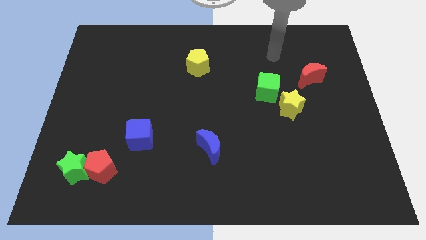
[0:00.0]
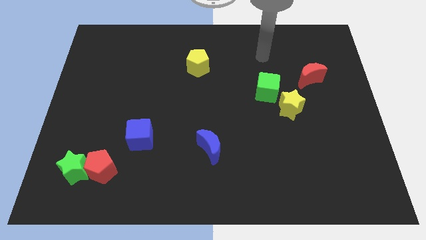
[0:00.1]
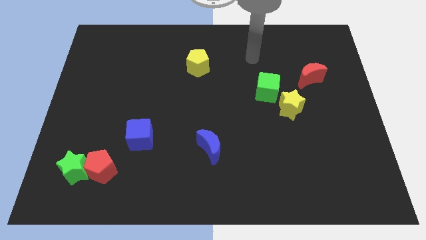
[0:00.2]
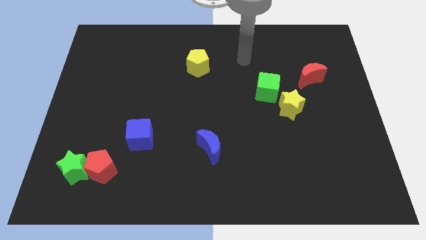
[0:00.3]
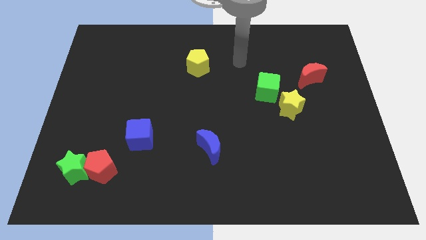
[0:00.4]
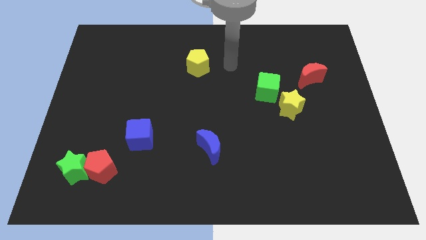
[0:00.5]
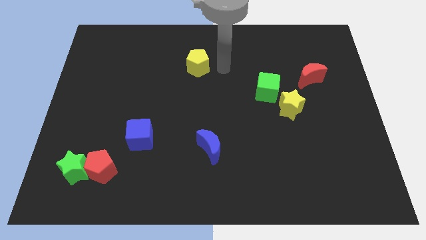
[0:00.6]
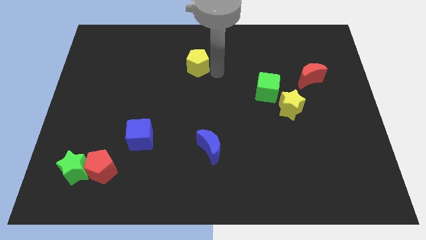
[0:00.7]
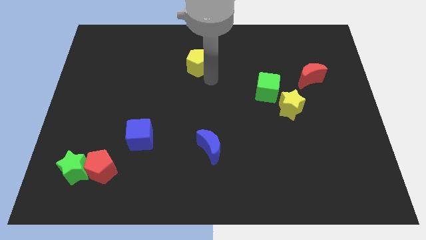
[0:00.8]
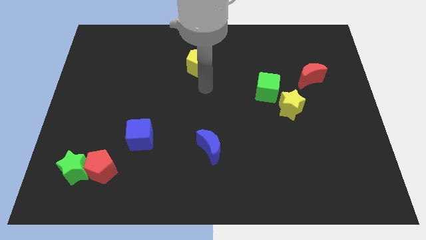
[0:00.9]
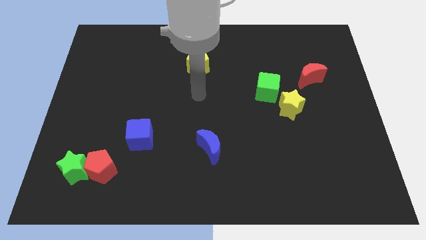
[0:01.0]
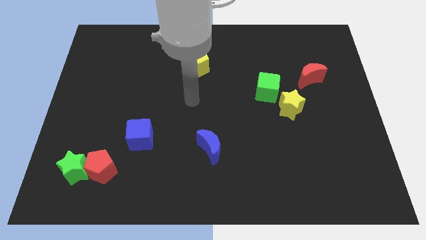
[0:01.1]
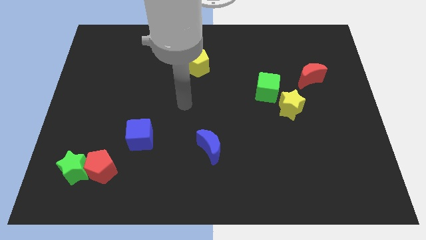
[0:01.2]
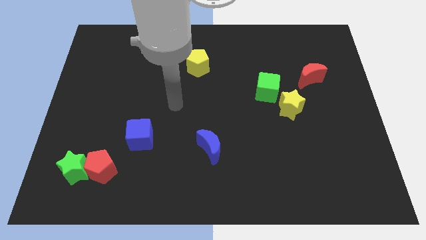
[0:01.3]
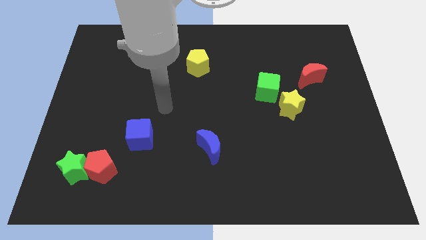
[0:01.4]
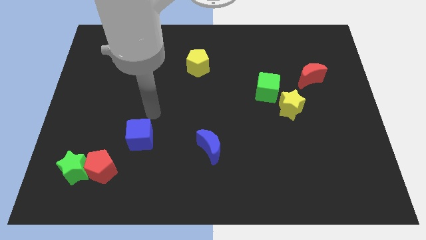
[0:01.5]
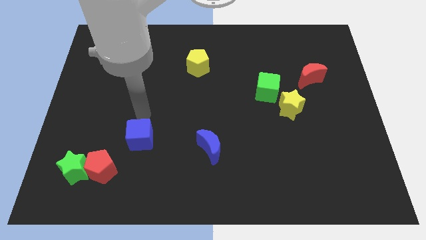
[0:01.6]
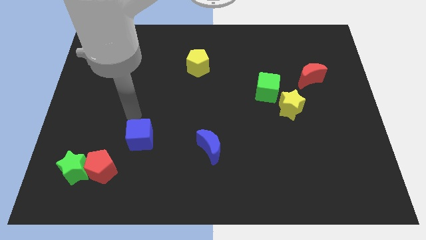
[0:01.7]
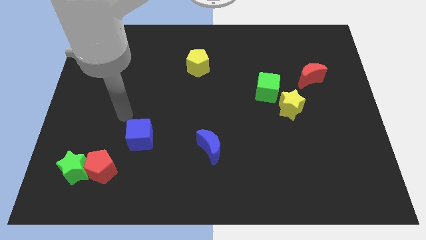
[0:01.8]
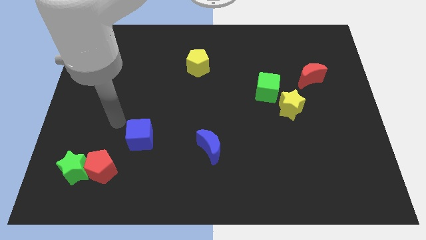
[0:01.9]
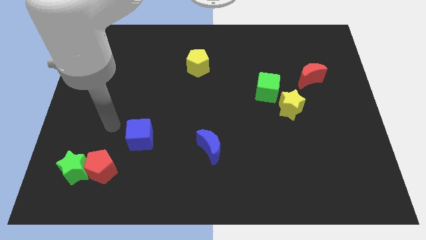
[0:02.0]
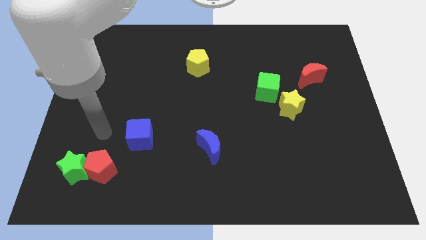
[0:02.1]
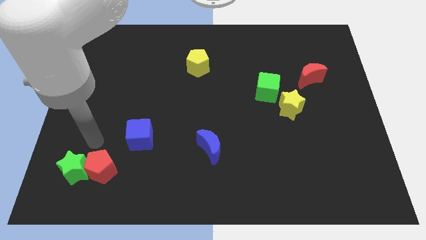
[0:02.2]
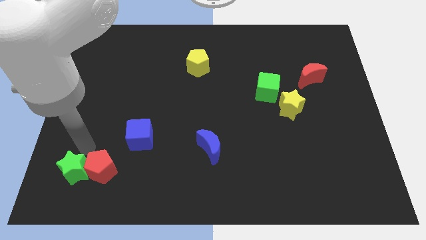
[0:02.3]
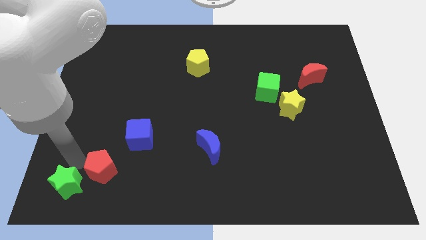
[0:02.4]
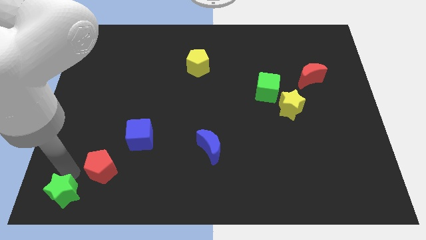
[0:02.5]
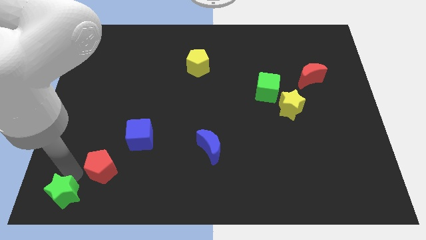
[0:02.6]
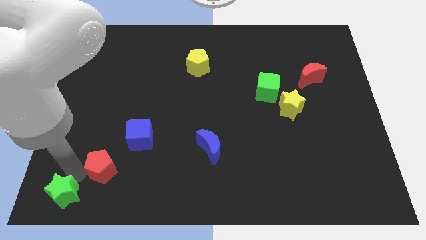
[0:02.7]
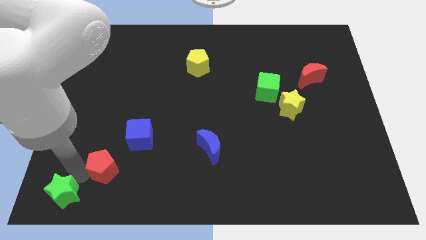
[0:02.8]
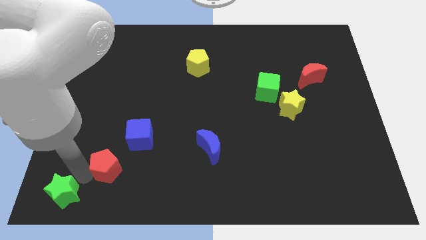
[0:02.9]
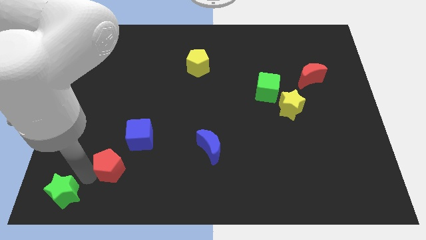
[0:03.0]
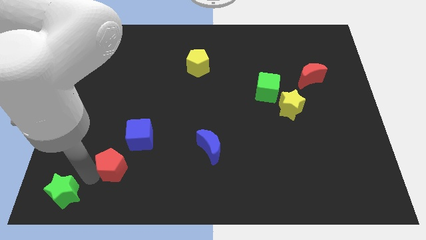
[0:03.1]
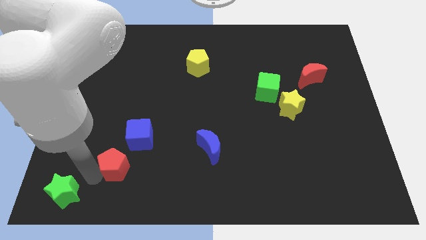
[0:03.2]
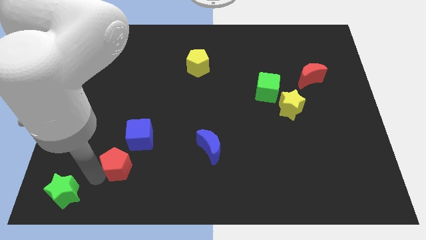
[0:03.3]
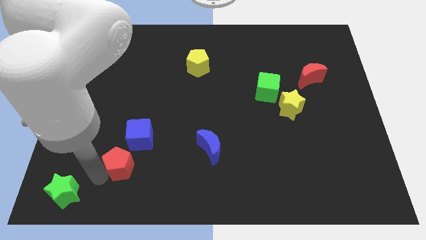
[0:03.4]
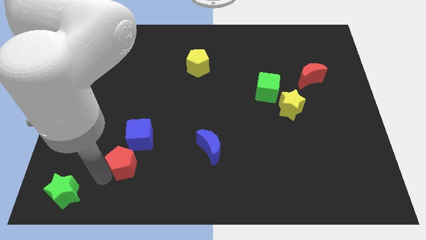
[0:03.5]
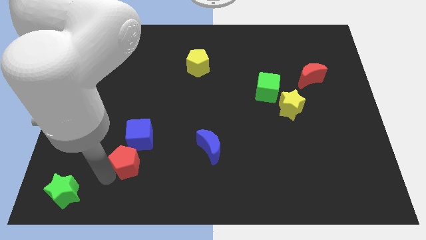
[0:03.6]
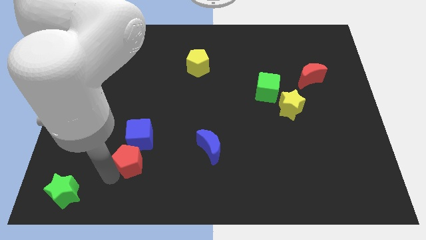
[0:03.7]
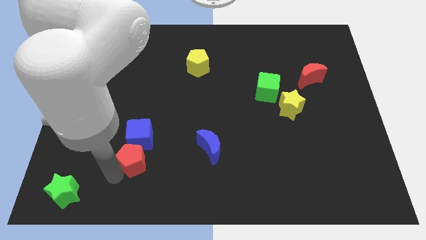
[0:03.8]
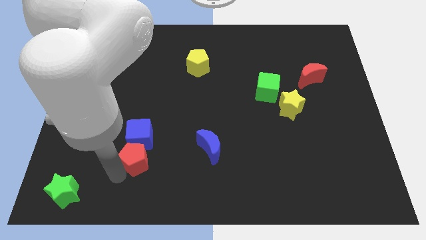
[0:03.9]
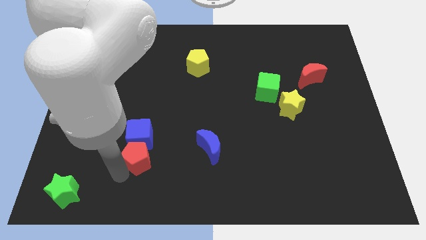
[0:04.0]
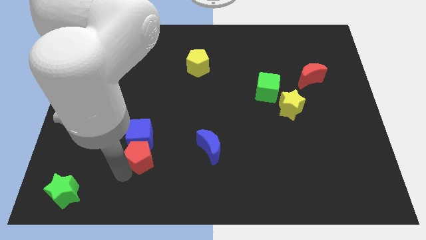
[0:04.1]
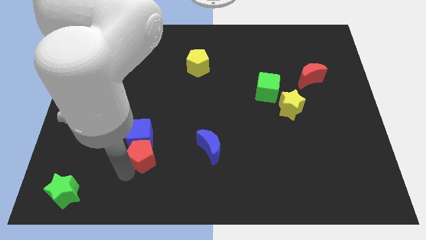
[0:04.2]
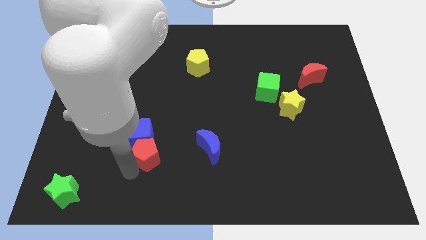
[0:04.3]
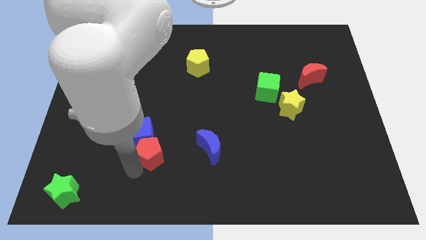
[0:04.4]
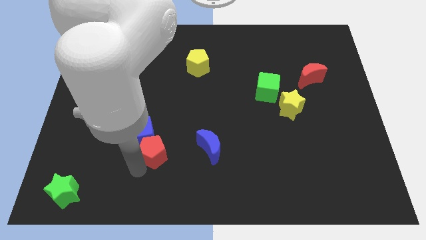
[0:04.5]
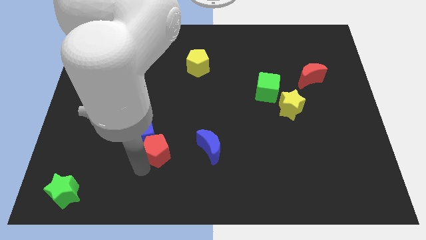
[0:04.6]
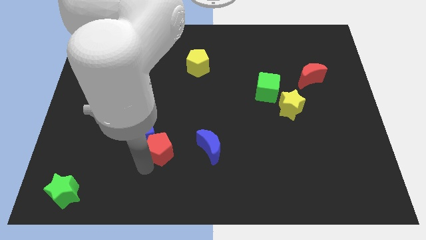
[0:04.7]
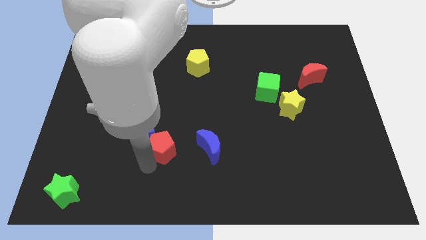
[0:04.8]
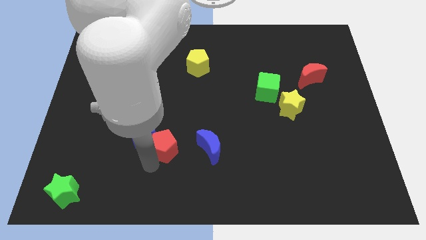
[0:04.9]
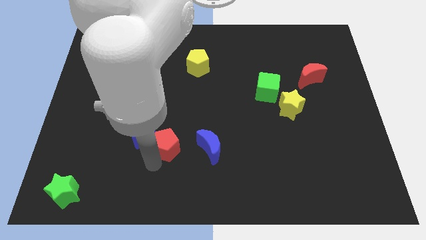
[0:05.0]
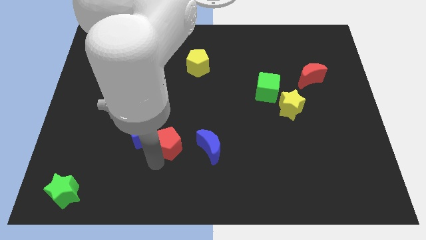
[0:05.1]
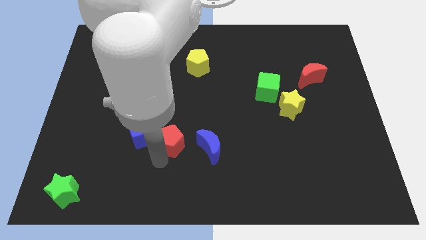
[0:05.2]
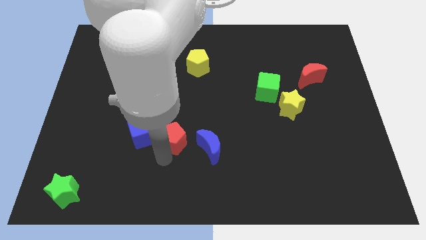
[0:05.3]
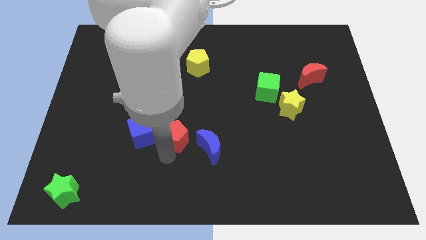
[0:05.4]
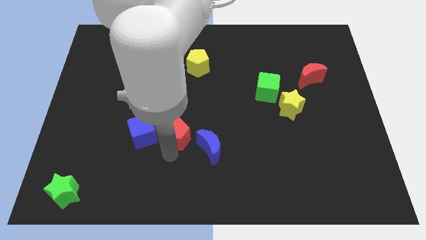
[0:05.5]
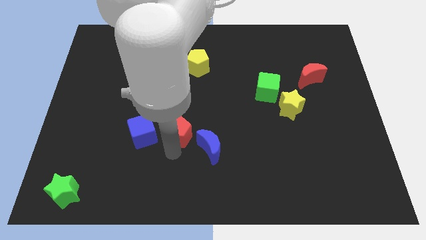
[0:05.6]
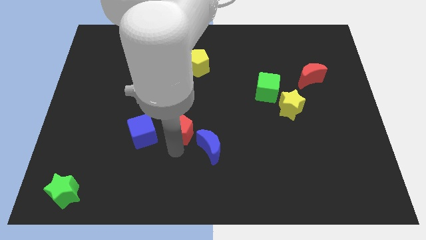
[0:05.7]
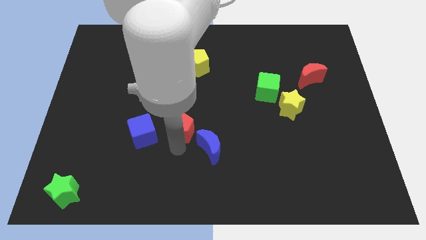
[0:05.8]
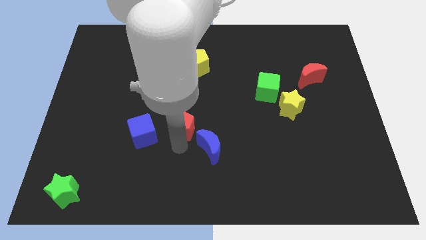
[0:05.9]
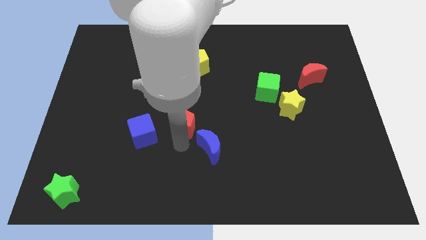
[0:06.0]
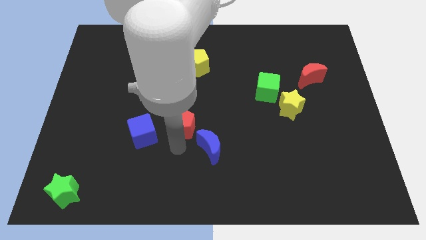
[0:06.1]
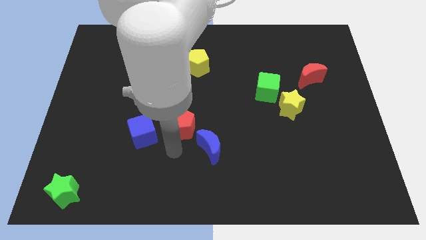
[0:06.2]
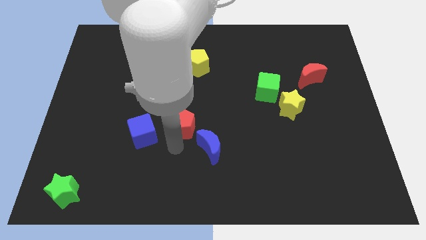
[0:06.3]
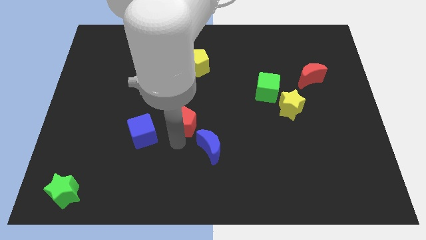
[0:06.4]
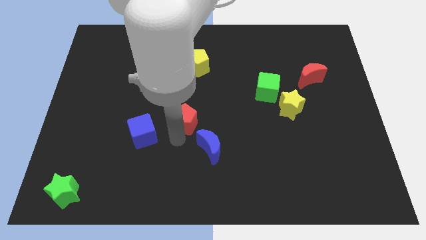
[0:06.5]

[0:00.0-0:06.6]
move the red pentagon upwards and to the right

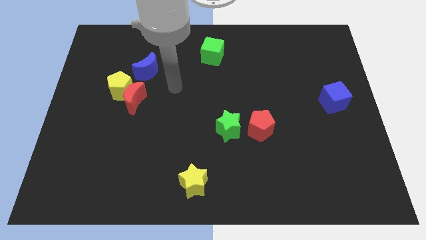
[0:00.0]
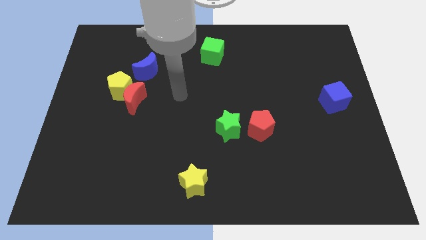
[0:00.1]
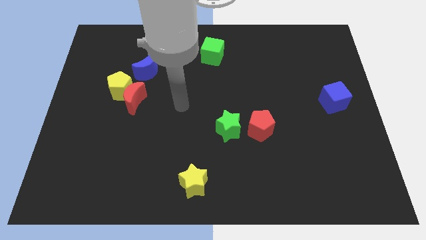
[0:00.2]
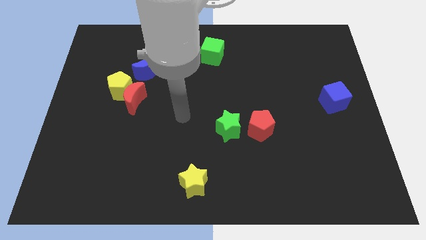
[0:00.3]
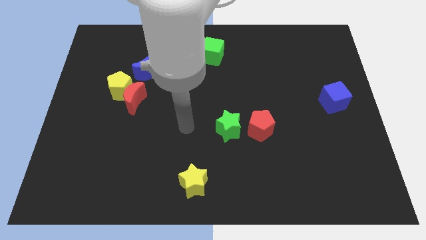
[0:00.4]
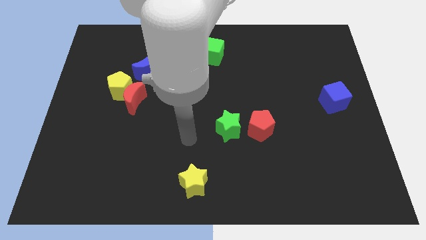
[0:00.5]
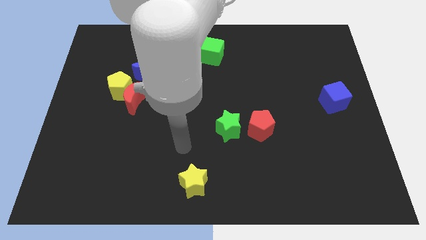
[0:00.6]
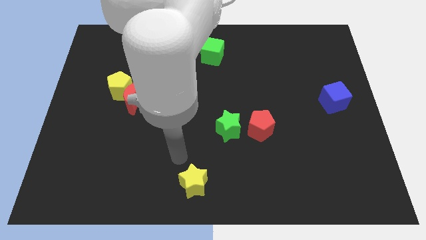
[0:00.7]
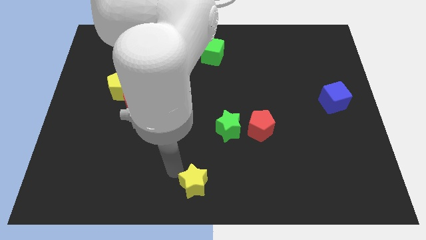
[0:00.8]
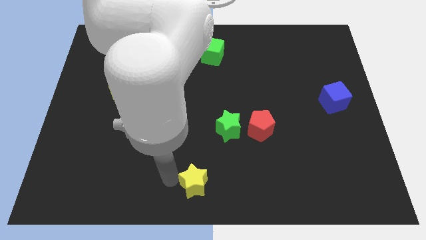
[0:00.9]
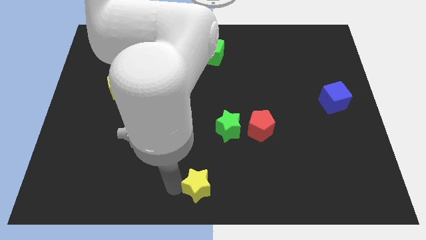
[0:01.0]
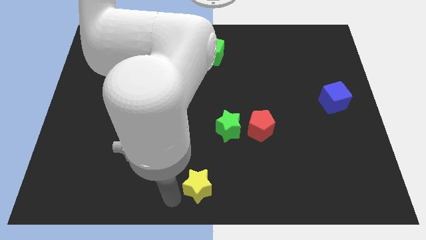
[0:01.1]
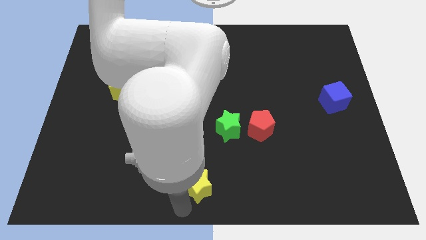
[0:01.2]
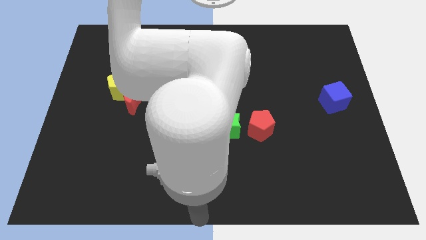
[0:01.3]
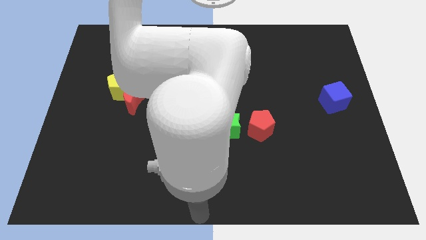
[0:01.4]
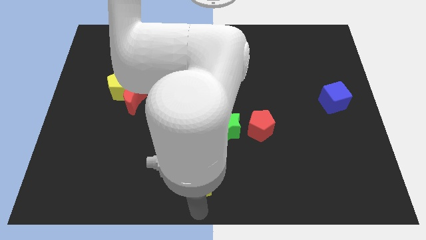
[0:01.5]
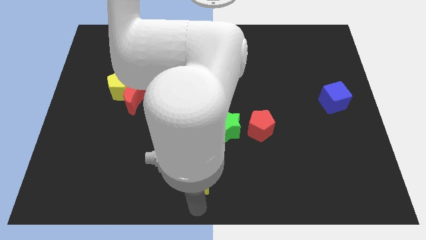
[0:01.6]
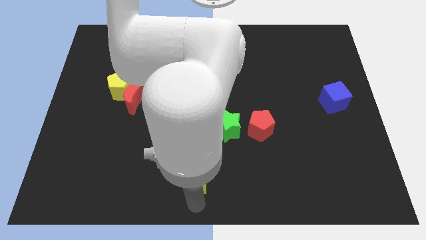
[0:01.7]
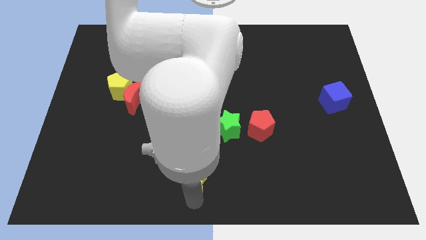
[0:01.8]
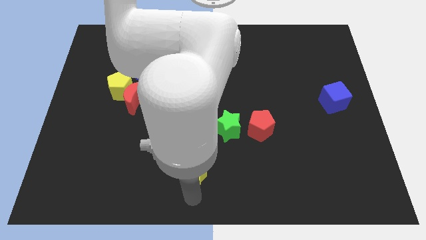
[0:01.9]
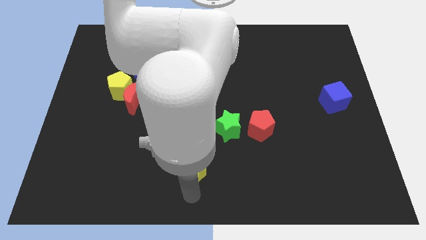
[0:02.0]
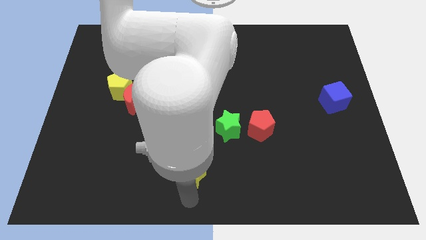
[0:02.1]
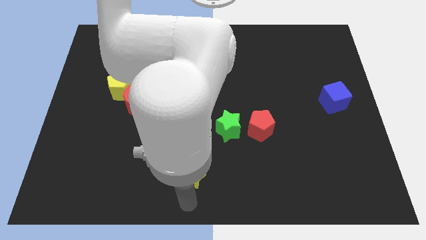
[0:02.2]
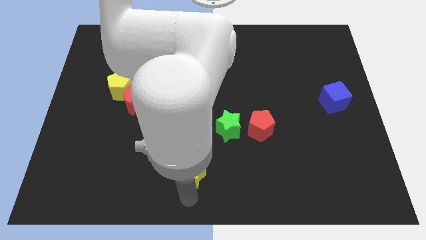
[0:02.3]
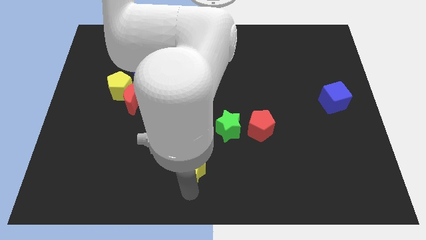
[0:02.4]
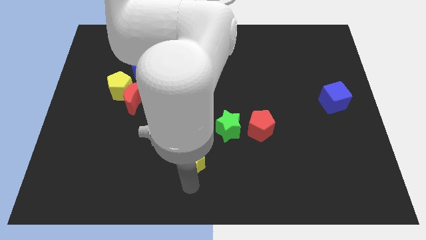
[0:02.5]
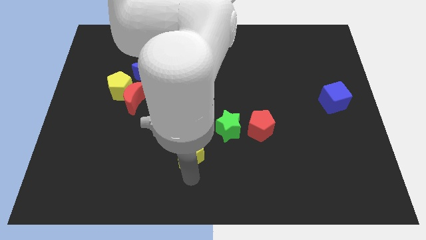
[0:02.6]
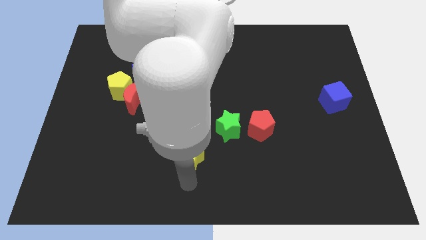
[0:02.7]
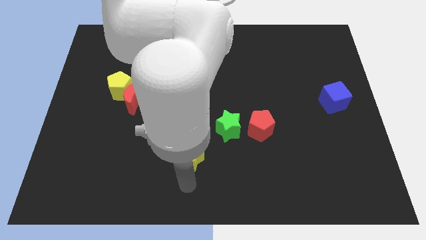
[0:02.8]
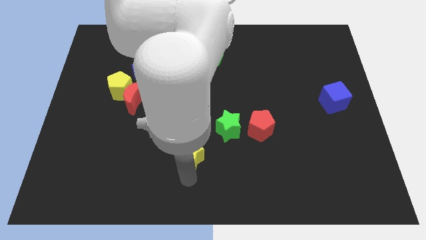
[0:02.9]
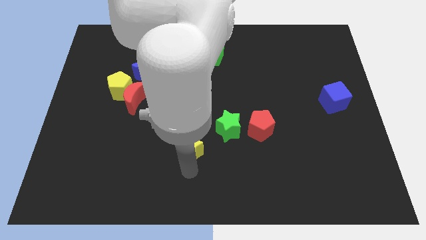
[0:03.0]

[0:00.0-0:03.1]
push the yellow star a bit up
